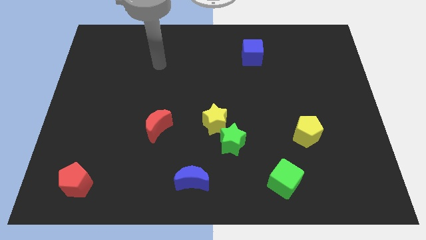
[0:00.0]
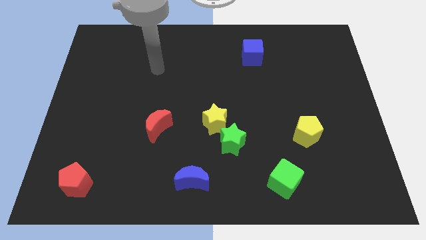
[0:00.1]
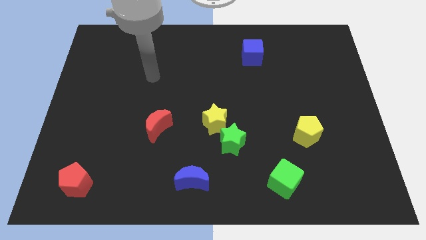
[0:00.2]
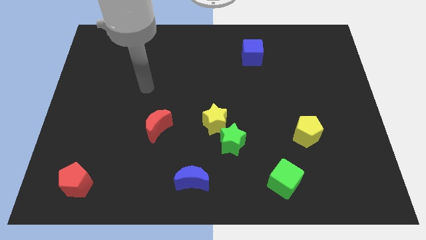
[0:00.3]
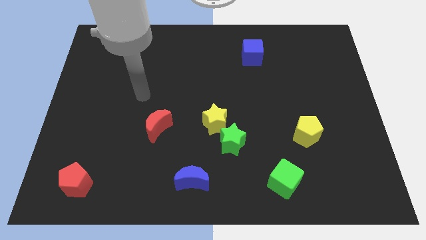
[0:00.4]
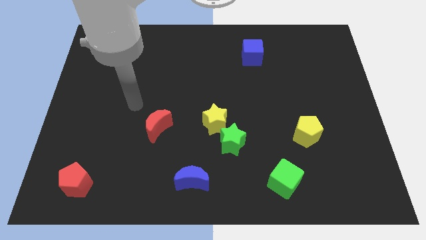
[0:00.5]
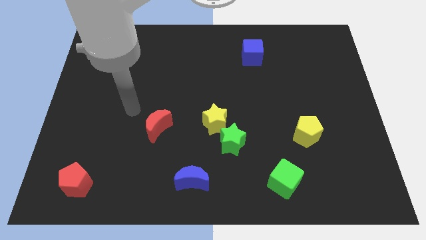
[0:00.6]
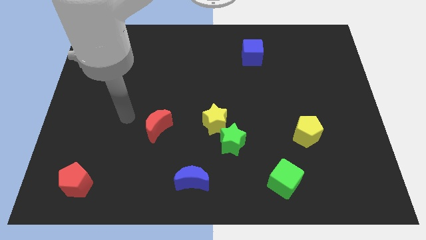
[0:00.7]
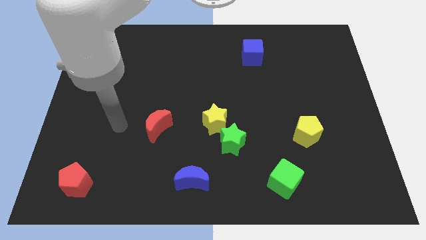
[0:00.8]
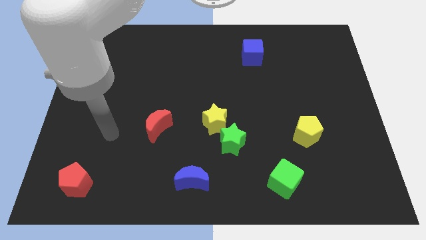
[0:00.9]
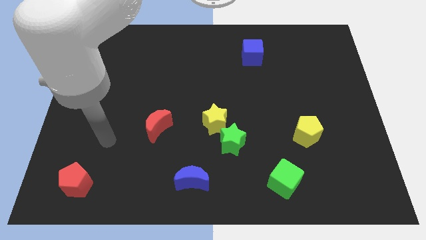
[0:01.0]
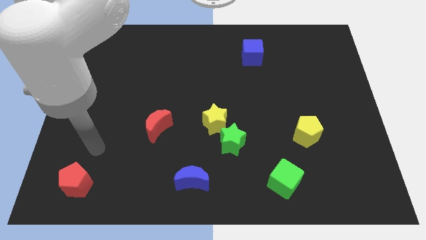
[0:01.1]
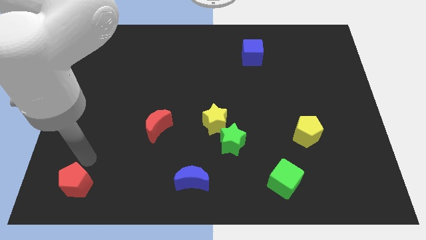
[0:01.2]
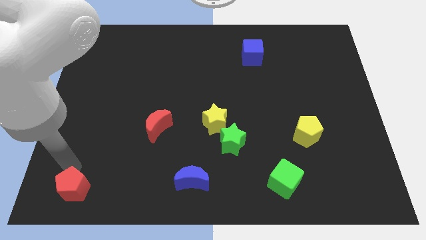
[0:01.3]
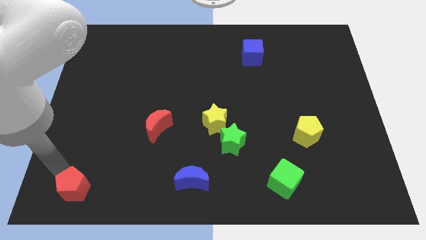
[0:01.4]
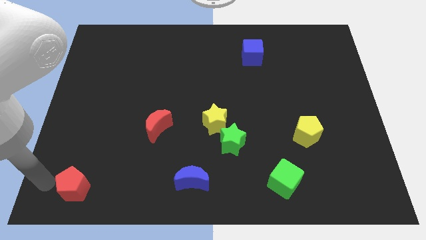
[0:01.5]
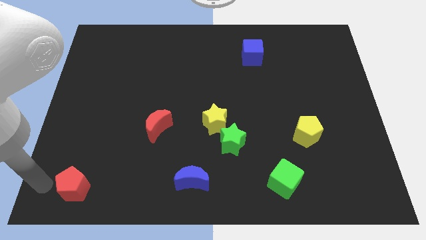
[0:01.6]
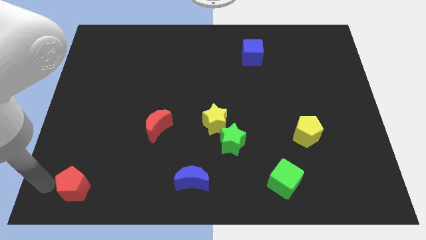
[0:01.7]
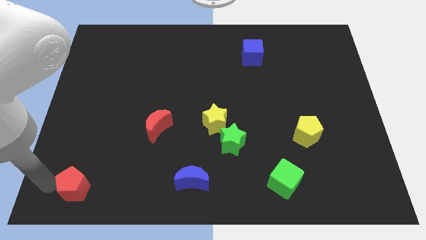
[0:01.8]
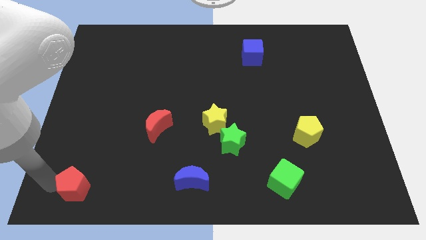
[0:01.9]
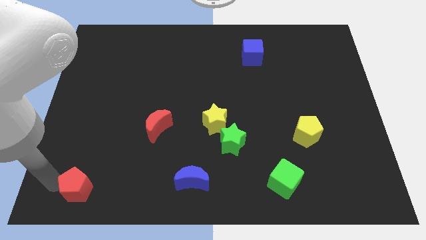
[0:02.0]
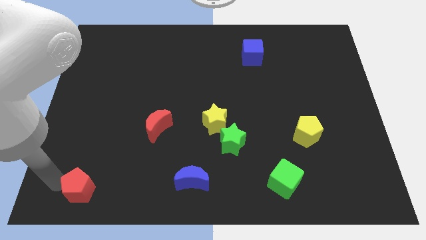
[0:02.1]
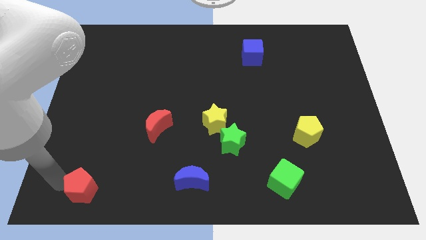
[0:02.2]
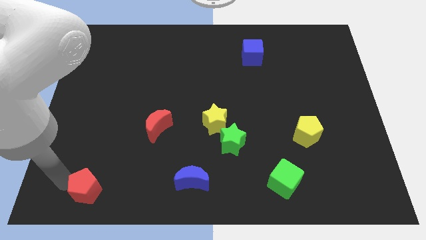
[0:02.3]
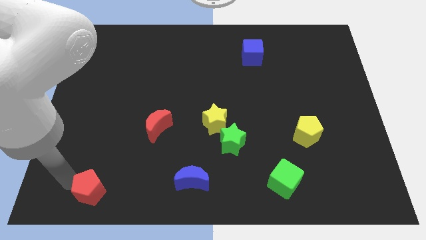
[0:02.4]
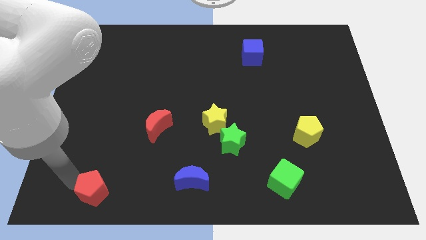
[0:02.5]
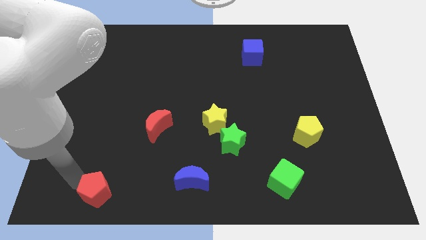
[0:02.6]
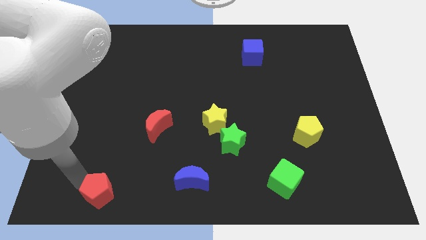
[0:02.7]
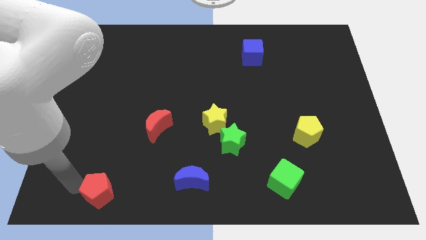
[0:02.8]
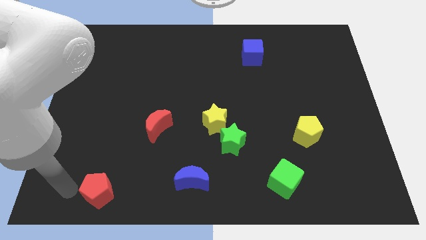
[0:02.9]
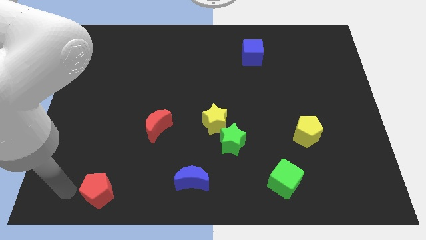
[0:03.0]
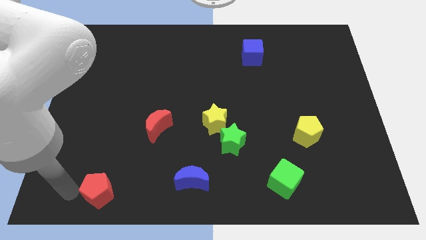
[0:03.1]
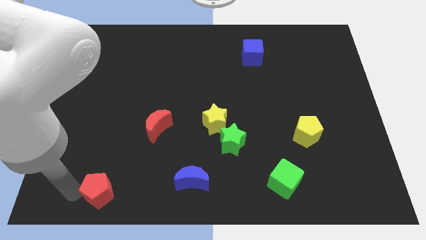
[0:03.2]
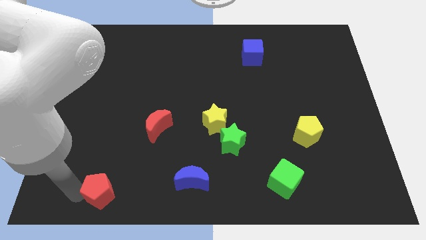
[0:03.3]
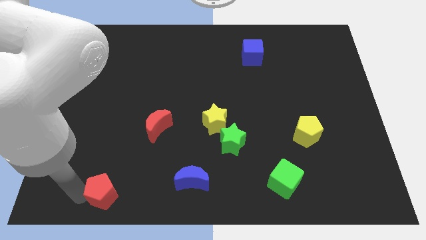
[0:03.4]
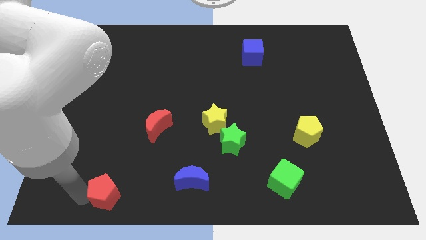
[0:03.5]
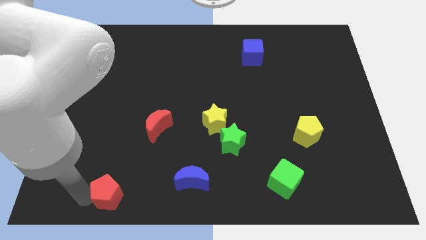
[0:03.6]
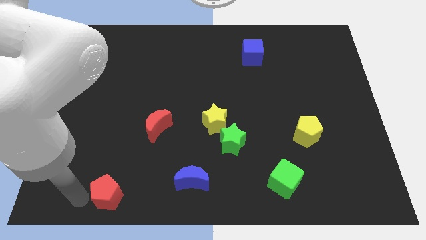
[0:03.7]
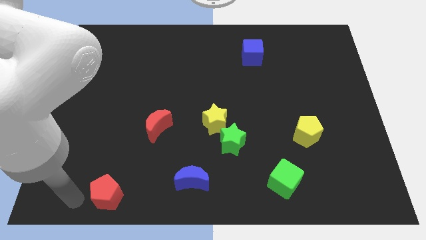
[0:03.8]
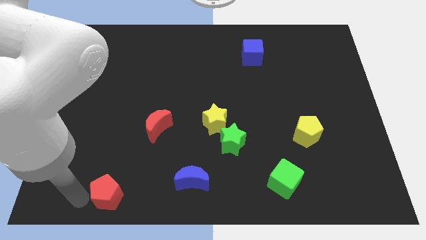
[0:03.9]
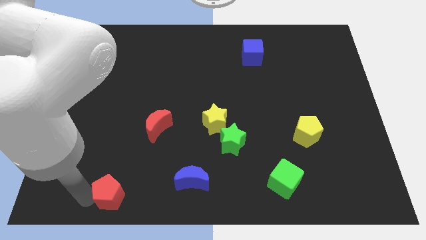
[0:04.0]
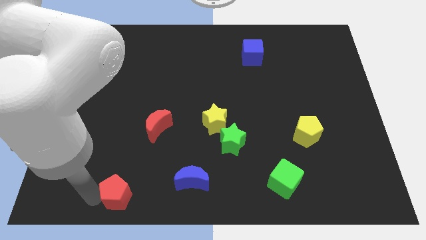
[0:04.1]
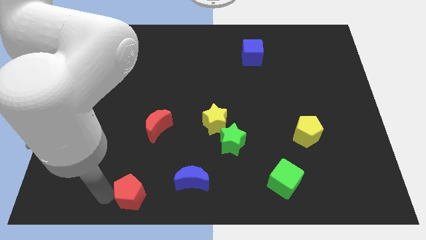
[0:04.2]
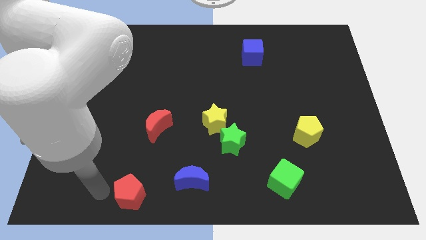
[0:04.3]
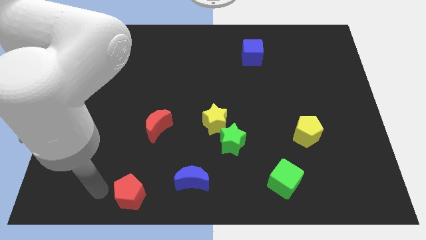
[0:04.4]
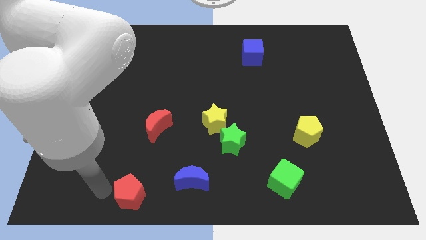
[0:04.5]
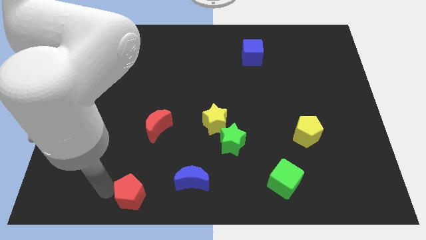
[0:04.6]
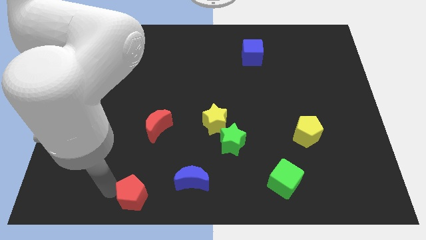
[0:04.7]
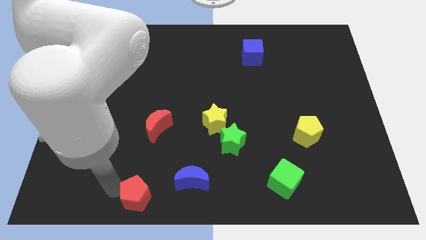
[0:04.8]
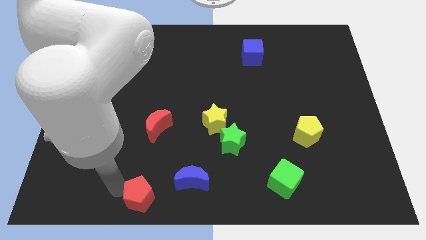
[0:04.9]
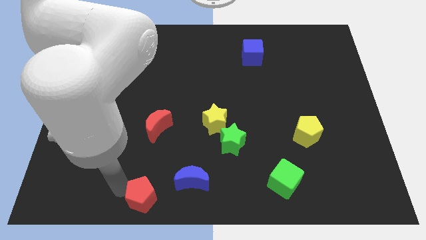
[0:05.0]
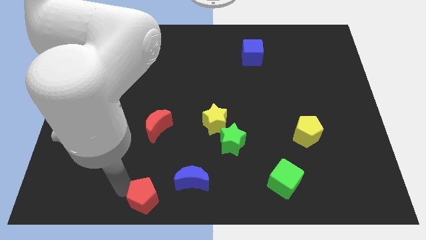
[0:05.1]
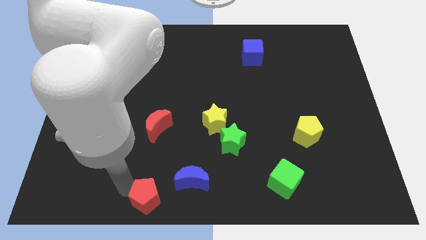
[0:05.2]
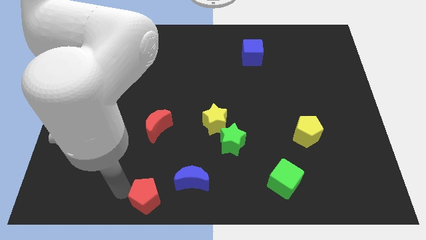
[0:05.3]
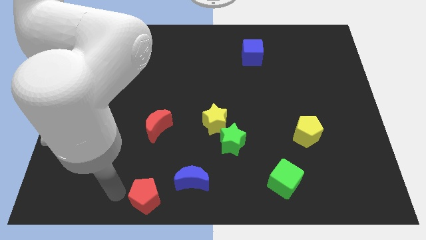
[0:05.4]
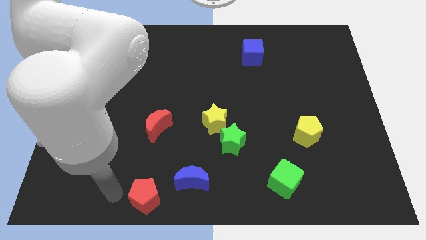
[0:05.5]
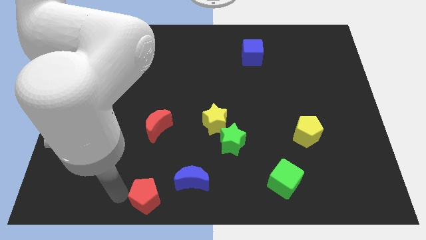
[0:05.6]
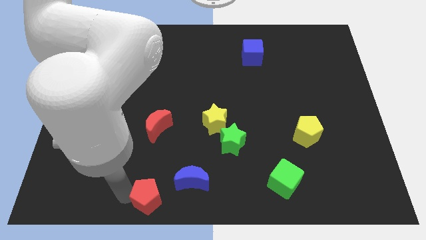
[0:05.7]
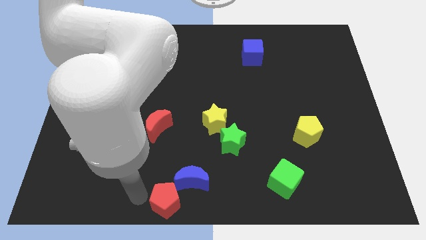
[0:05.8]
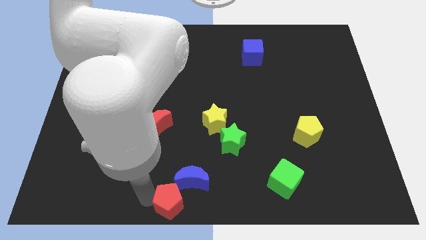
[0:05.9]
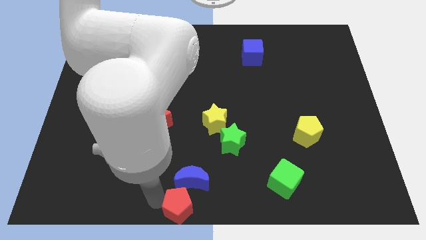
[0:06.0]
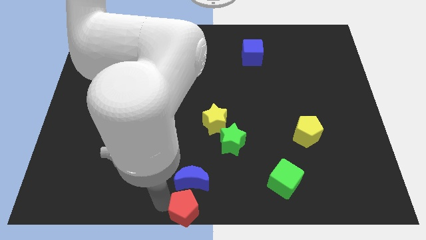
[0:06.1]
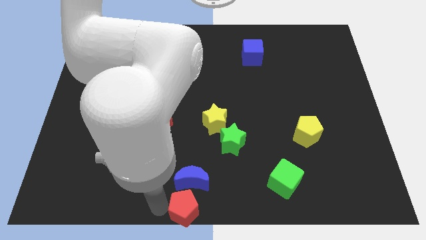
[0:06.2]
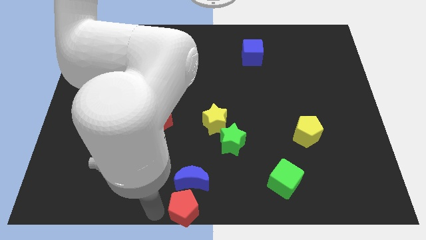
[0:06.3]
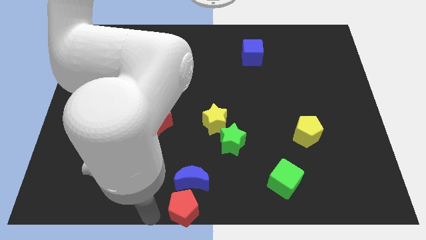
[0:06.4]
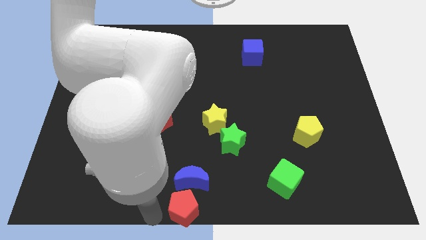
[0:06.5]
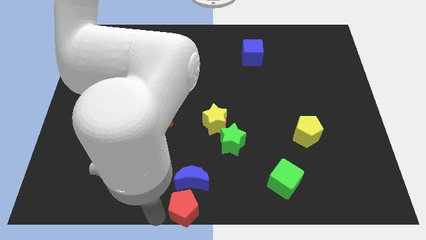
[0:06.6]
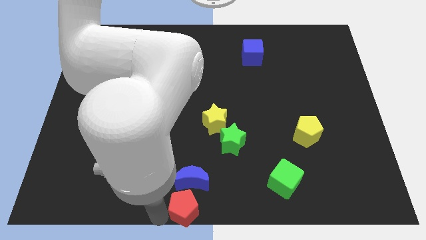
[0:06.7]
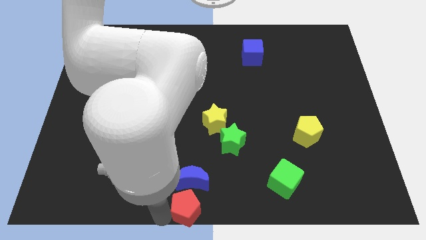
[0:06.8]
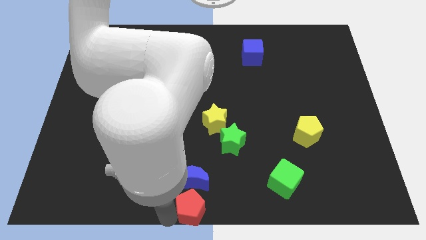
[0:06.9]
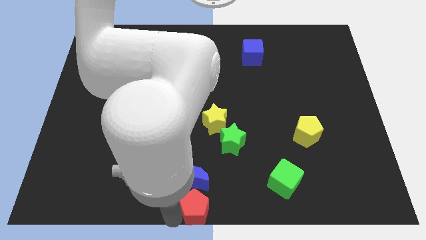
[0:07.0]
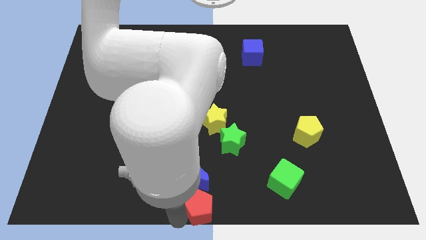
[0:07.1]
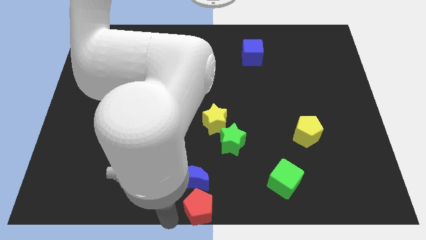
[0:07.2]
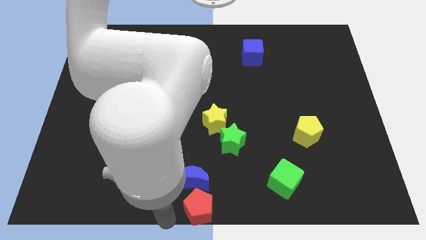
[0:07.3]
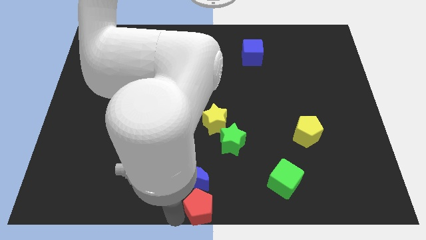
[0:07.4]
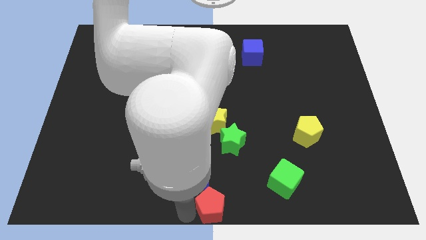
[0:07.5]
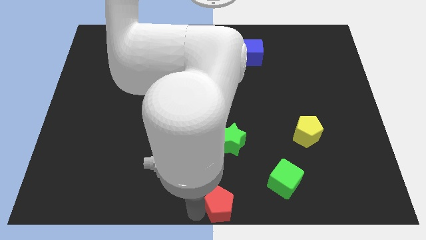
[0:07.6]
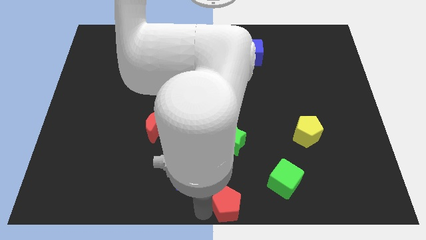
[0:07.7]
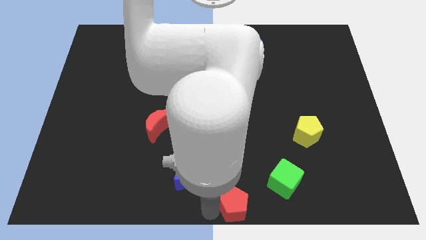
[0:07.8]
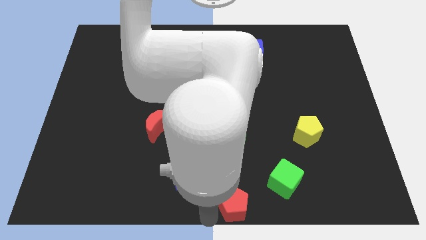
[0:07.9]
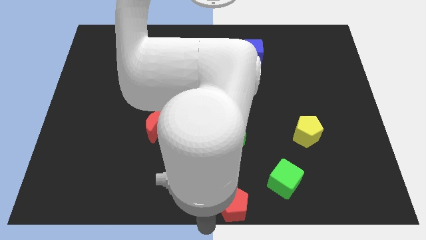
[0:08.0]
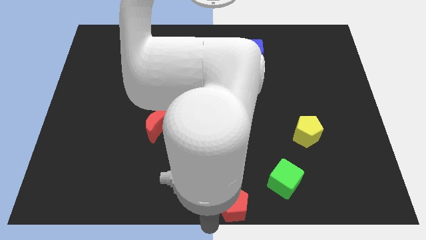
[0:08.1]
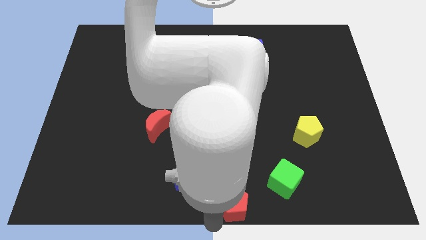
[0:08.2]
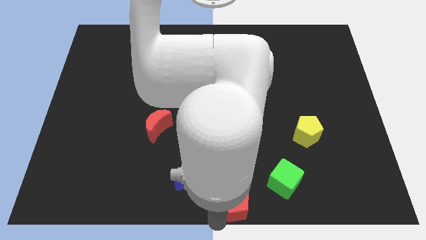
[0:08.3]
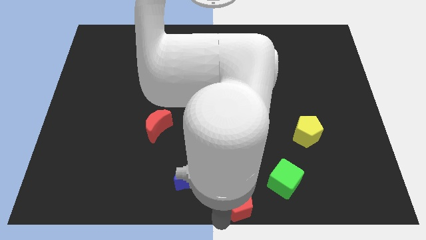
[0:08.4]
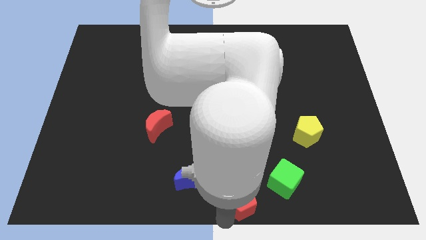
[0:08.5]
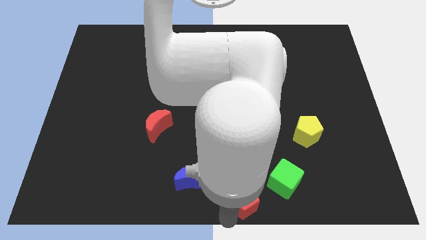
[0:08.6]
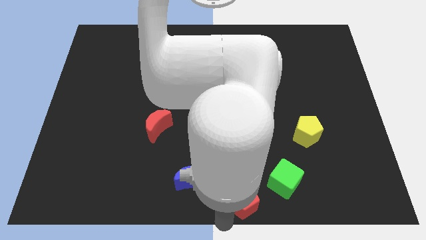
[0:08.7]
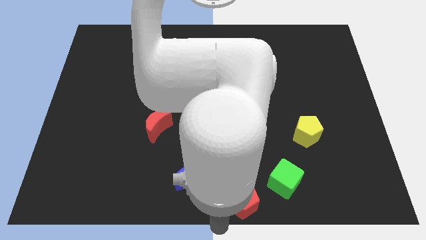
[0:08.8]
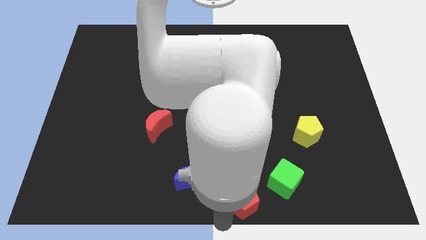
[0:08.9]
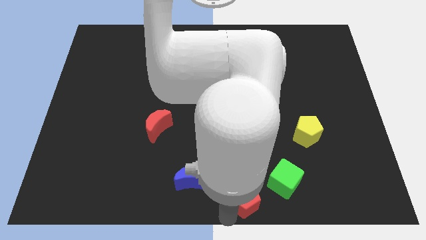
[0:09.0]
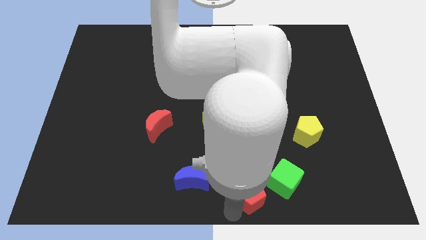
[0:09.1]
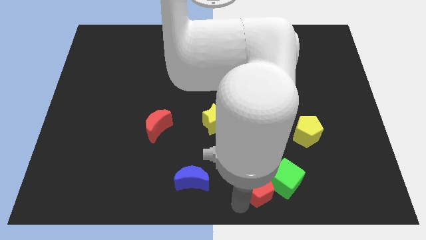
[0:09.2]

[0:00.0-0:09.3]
put the red pentagon close to the green cube
